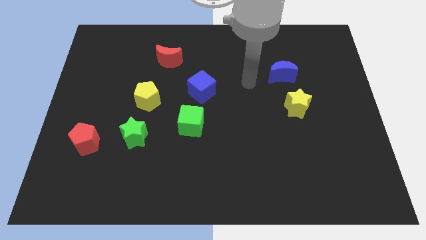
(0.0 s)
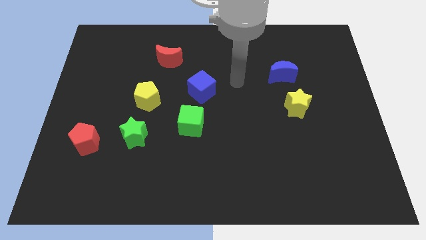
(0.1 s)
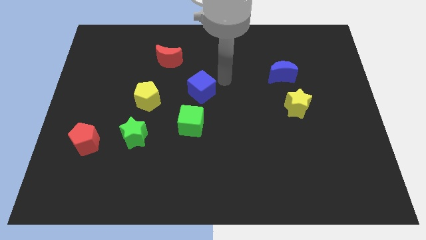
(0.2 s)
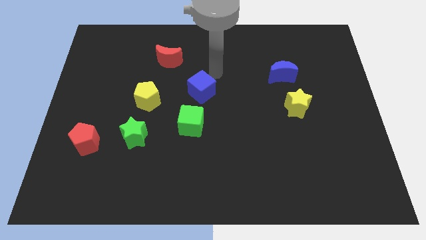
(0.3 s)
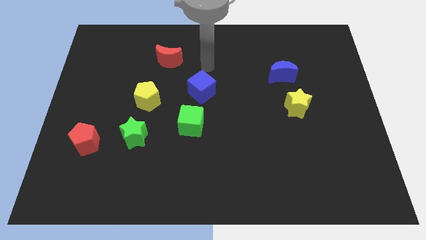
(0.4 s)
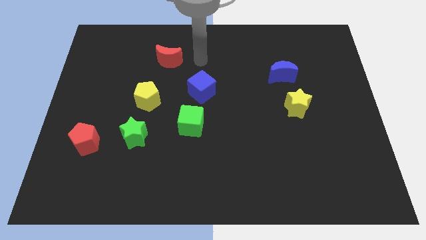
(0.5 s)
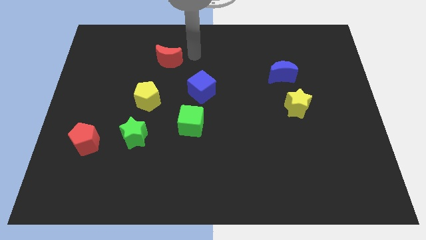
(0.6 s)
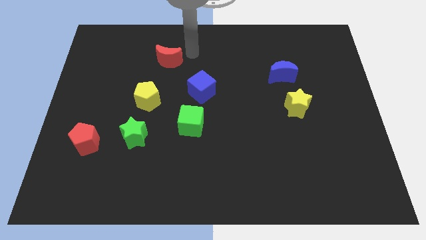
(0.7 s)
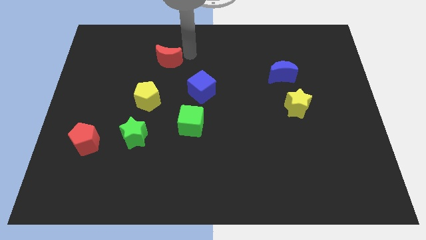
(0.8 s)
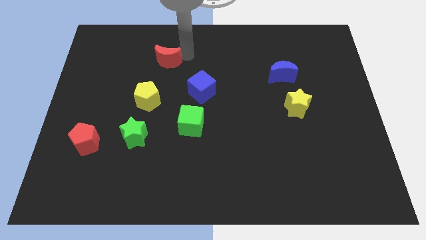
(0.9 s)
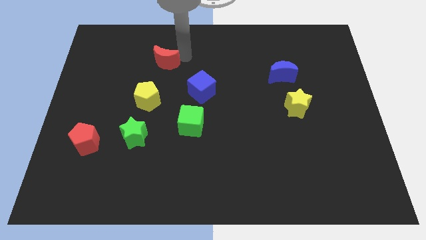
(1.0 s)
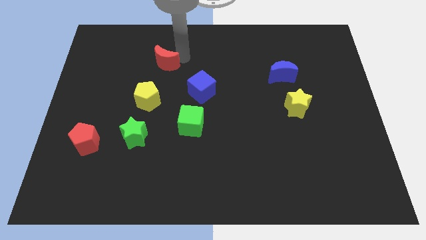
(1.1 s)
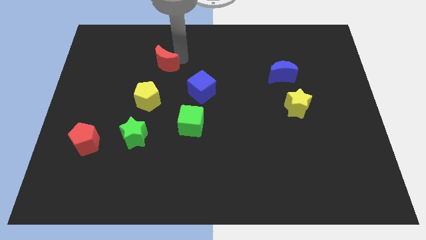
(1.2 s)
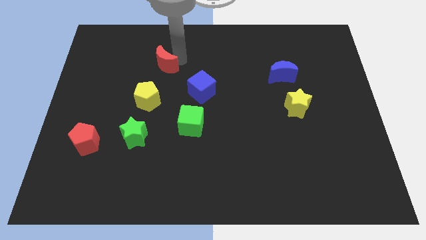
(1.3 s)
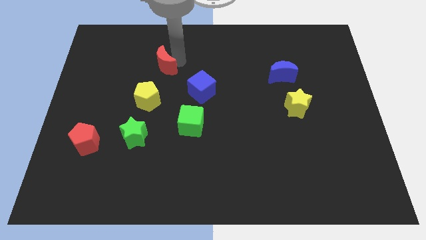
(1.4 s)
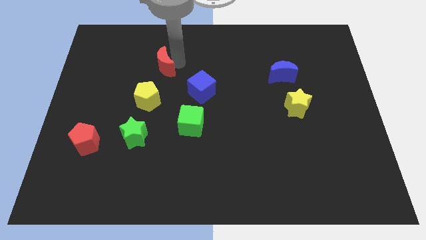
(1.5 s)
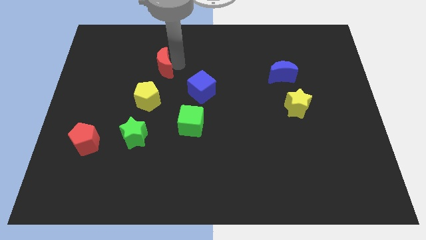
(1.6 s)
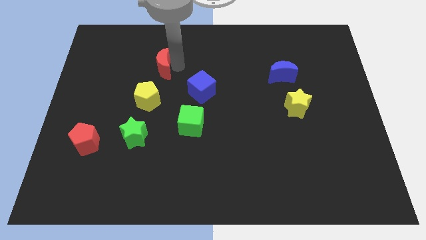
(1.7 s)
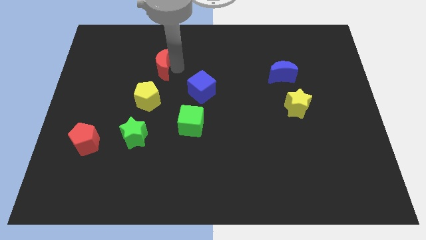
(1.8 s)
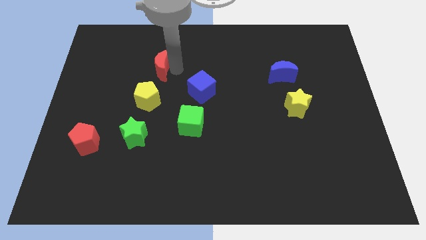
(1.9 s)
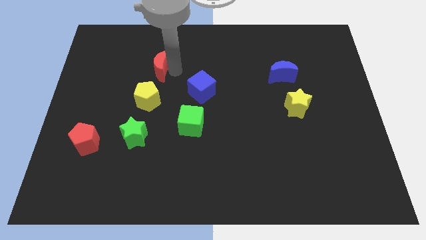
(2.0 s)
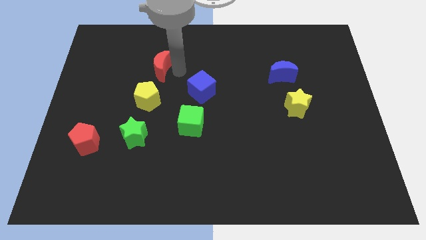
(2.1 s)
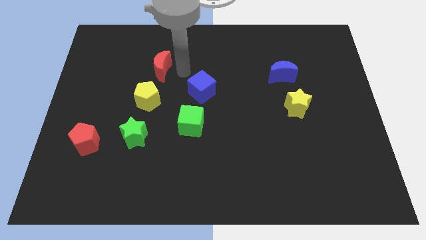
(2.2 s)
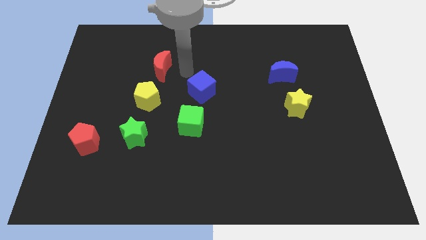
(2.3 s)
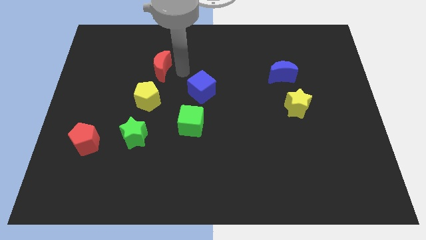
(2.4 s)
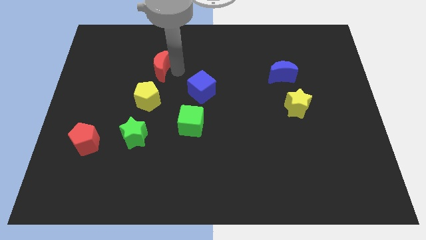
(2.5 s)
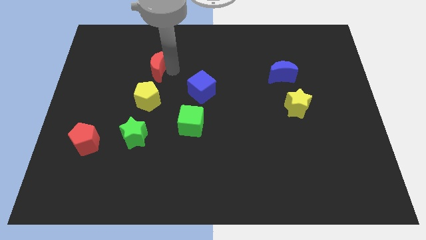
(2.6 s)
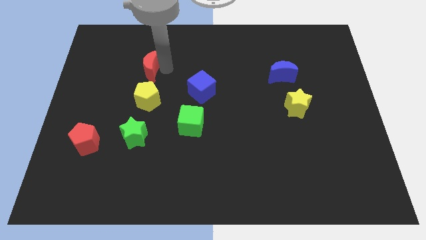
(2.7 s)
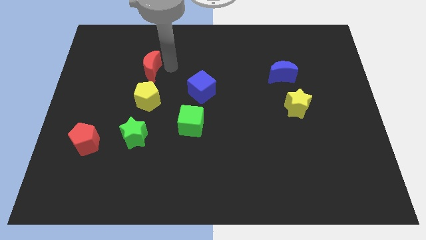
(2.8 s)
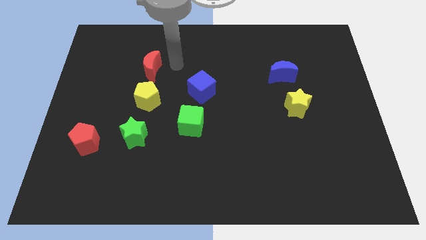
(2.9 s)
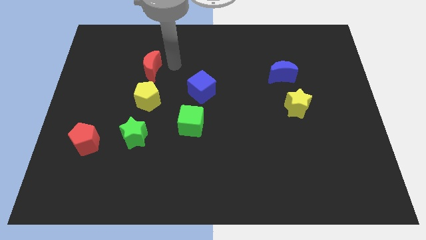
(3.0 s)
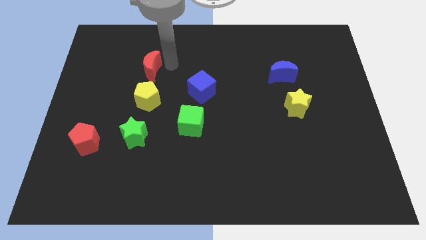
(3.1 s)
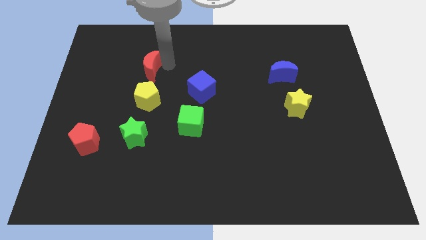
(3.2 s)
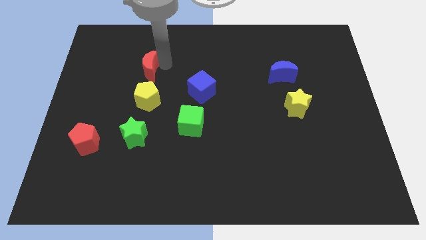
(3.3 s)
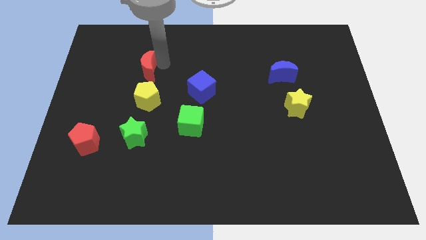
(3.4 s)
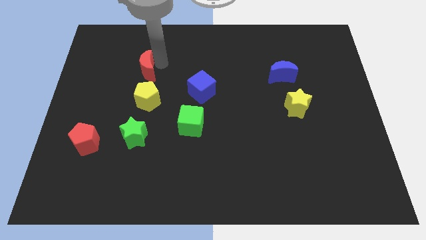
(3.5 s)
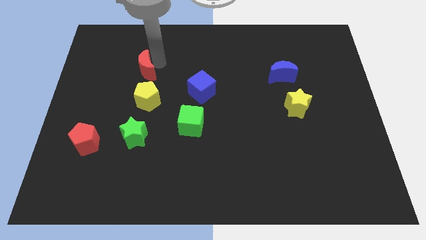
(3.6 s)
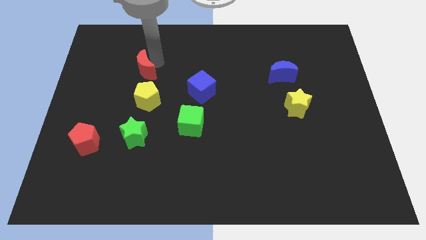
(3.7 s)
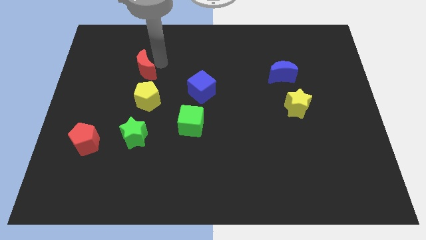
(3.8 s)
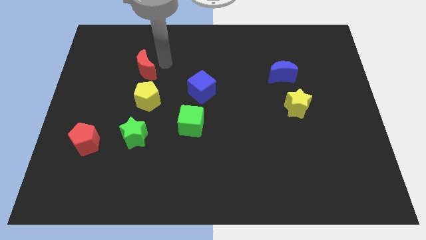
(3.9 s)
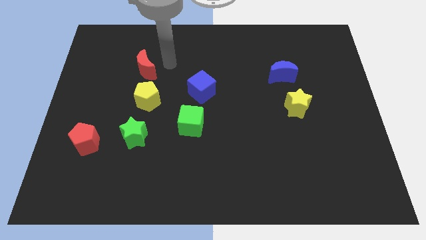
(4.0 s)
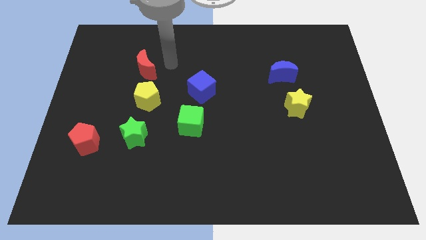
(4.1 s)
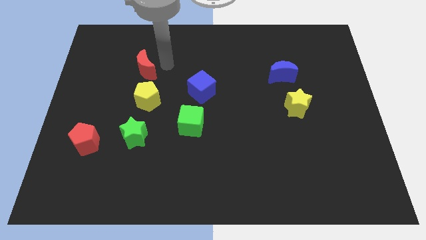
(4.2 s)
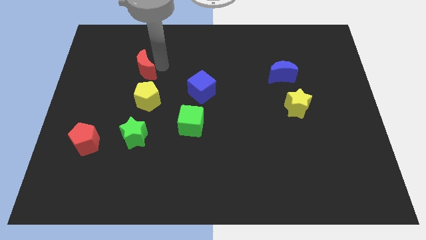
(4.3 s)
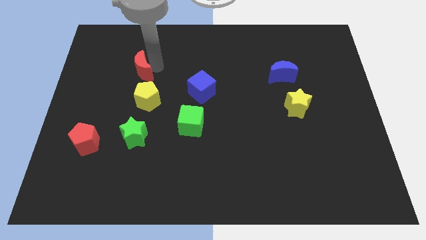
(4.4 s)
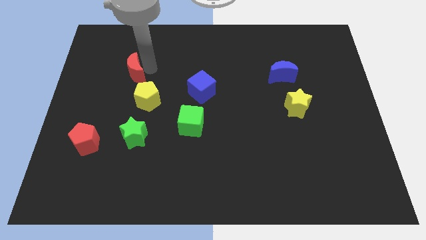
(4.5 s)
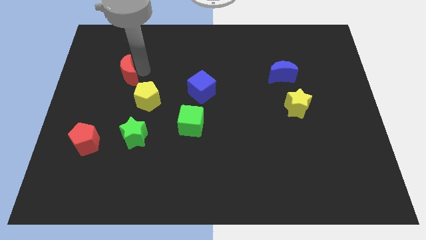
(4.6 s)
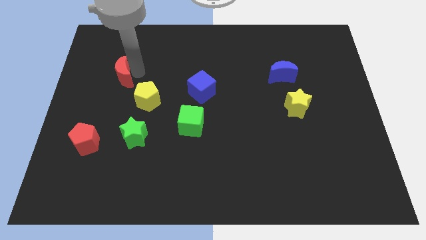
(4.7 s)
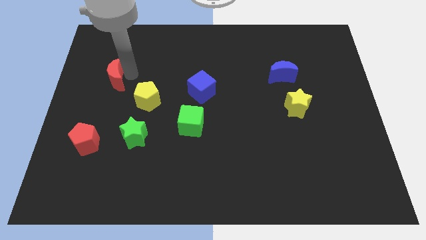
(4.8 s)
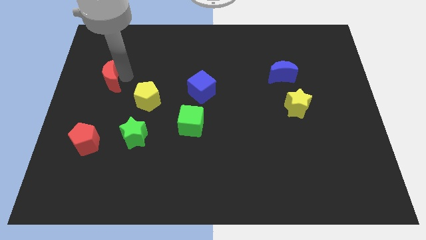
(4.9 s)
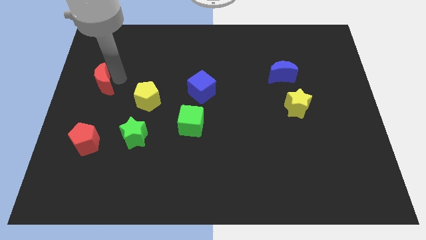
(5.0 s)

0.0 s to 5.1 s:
slide the red moon to the left side of the board

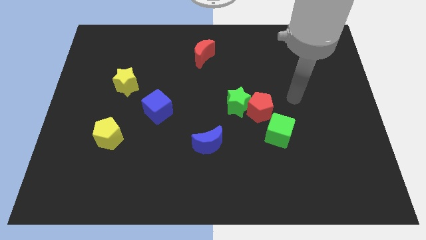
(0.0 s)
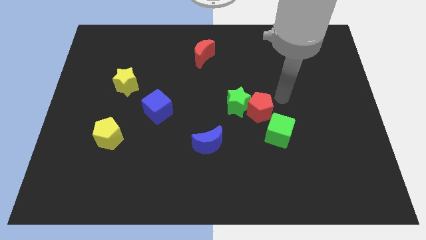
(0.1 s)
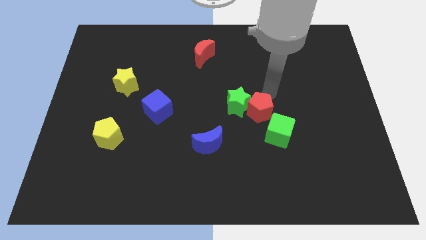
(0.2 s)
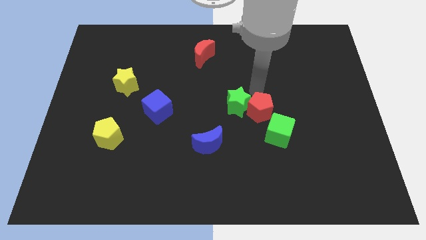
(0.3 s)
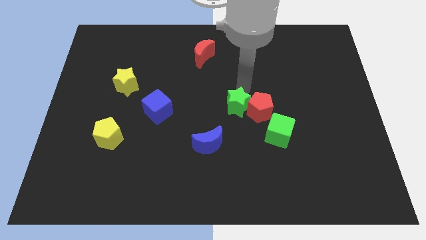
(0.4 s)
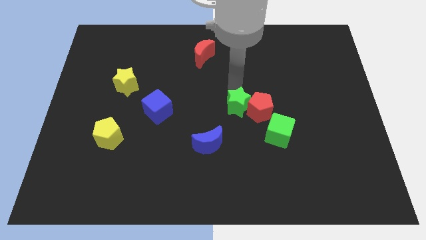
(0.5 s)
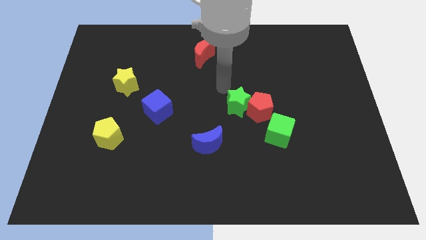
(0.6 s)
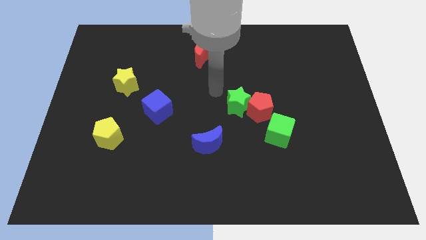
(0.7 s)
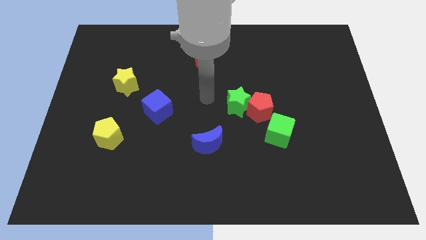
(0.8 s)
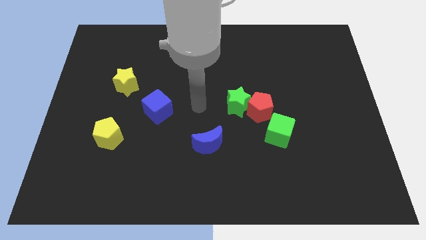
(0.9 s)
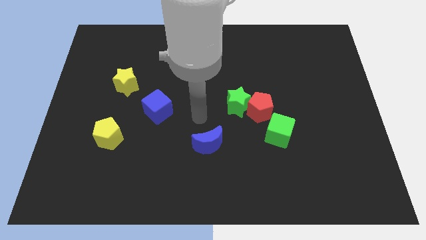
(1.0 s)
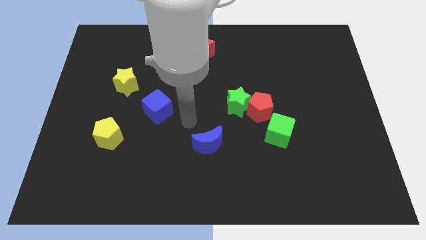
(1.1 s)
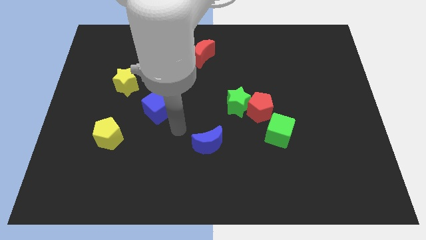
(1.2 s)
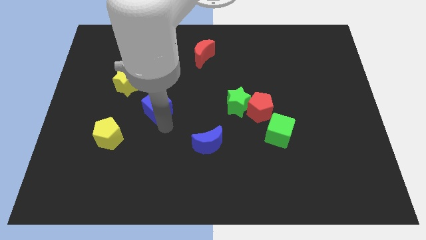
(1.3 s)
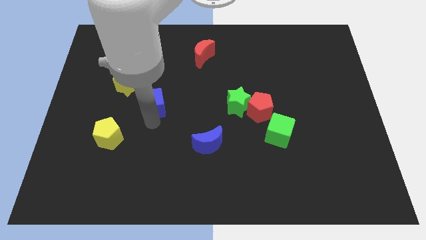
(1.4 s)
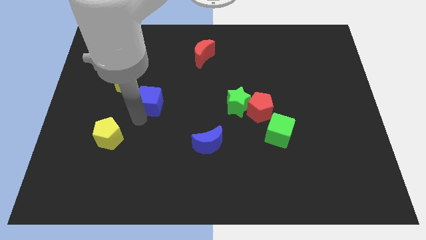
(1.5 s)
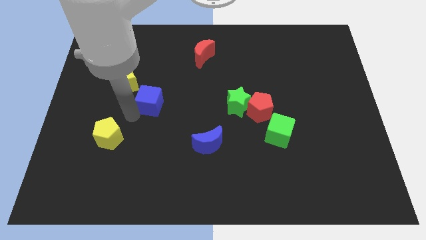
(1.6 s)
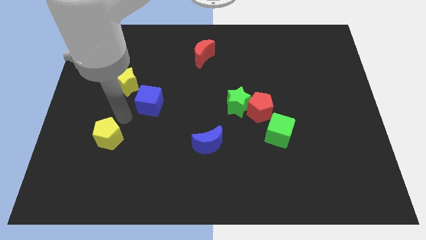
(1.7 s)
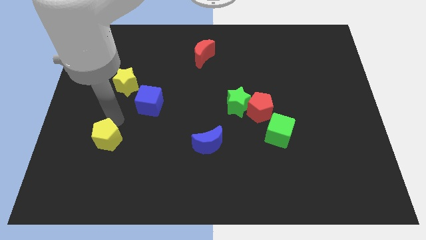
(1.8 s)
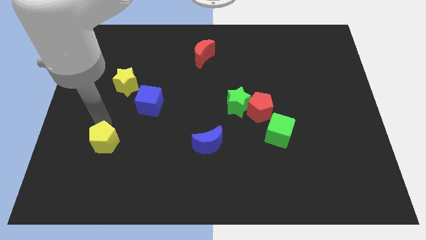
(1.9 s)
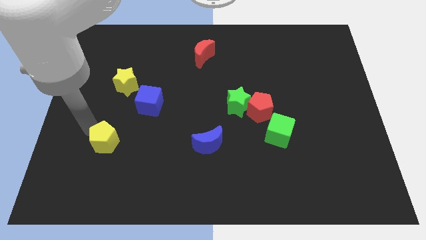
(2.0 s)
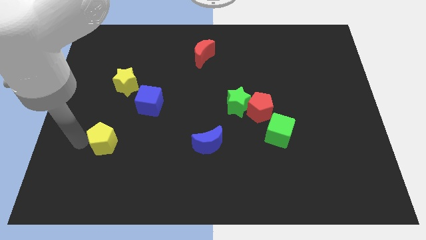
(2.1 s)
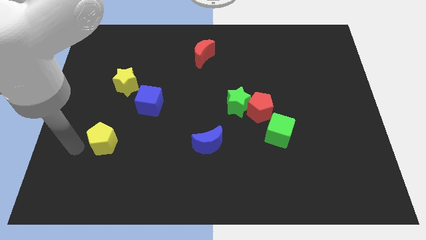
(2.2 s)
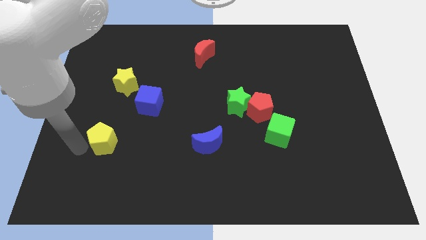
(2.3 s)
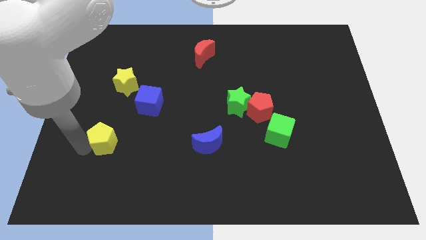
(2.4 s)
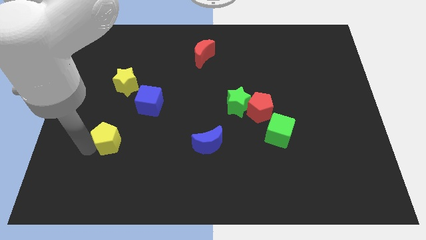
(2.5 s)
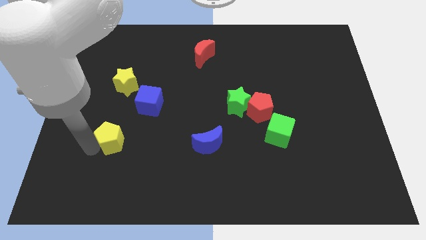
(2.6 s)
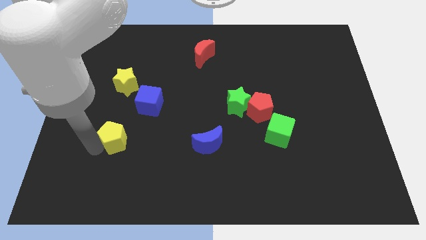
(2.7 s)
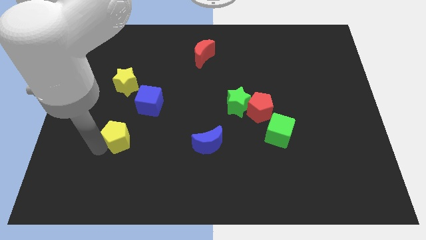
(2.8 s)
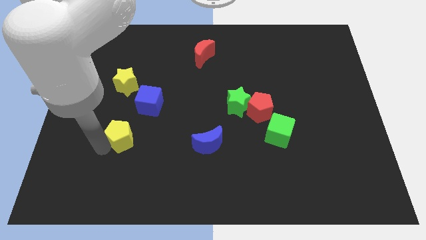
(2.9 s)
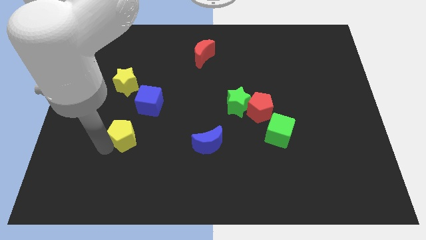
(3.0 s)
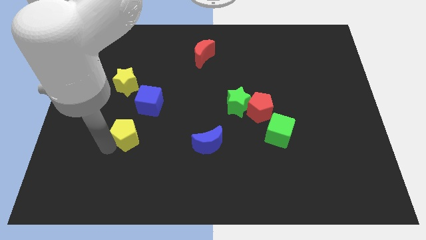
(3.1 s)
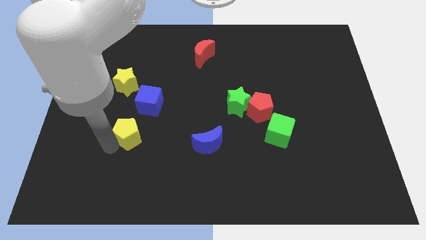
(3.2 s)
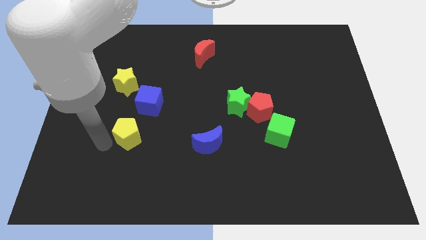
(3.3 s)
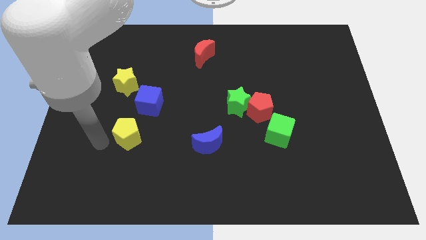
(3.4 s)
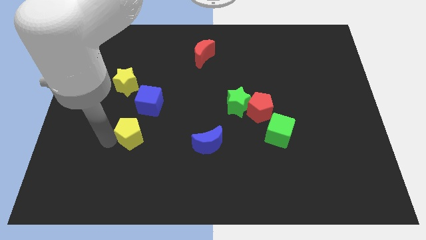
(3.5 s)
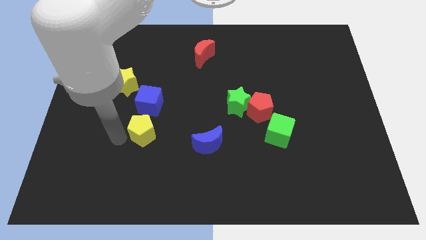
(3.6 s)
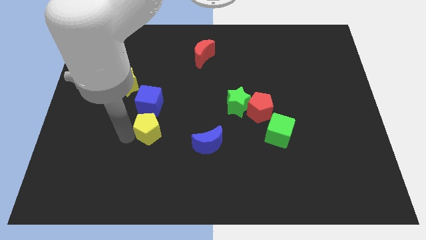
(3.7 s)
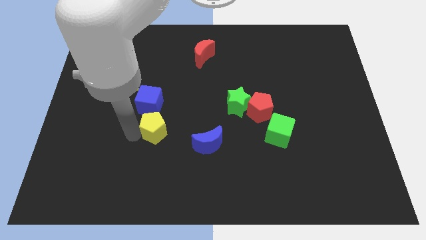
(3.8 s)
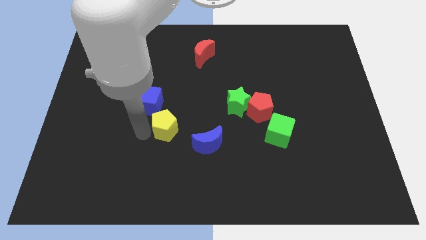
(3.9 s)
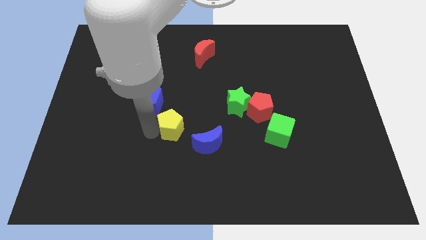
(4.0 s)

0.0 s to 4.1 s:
move the yellow pentagon to the center
